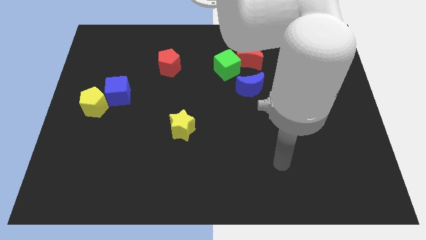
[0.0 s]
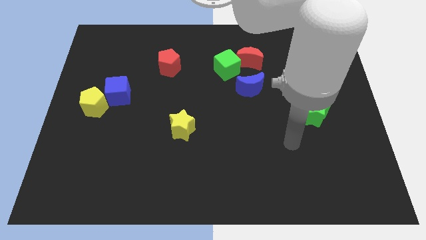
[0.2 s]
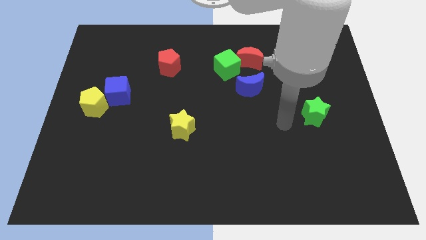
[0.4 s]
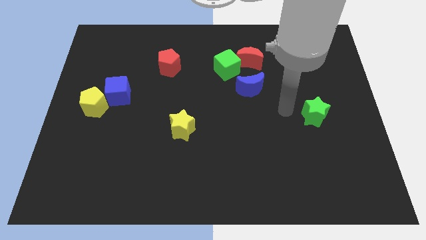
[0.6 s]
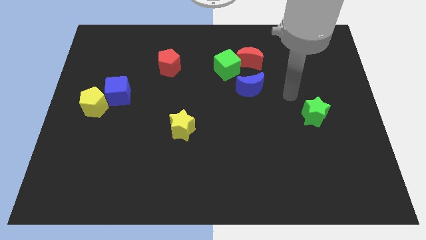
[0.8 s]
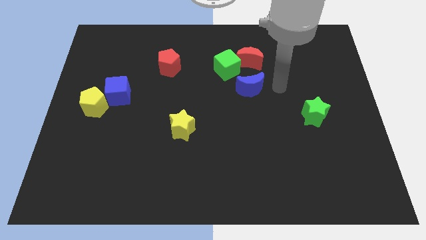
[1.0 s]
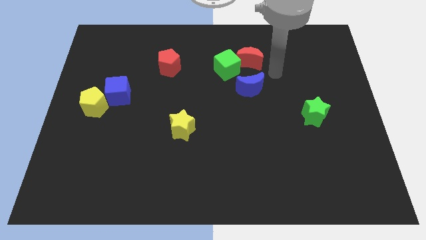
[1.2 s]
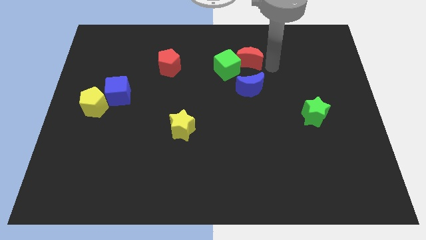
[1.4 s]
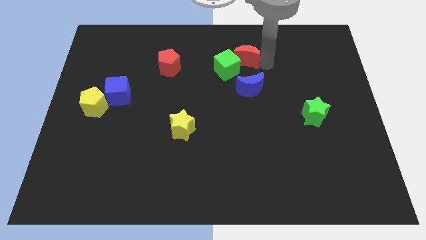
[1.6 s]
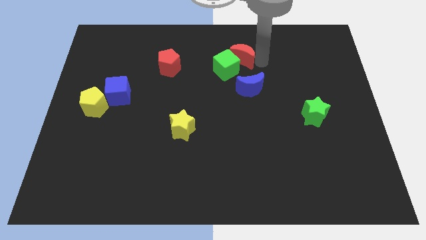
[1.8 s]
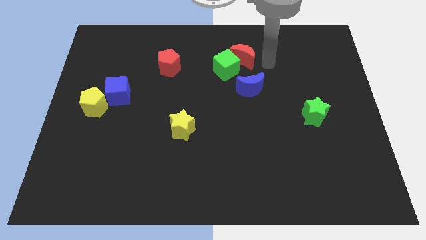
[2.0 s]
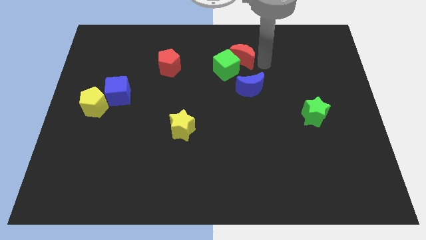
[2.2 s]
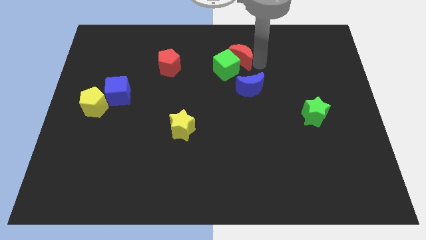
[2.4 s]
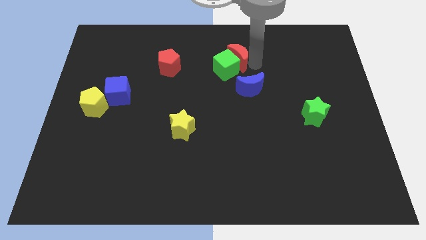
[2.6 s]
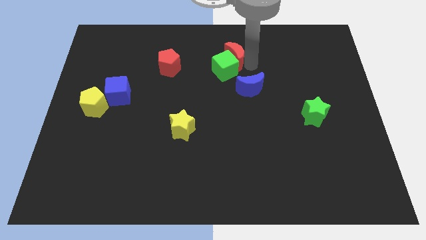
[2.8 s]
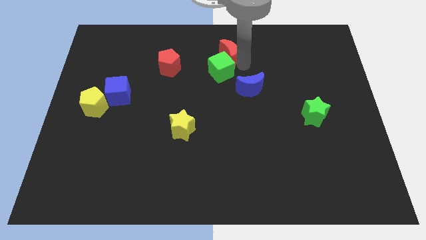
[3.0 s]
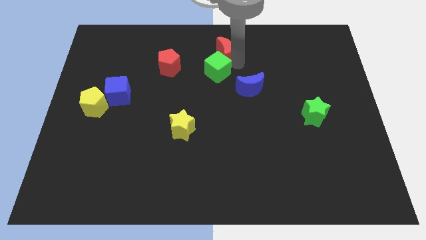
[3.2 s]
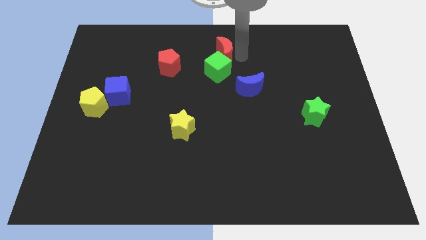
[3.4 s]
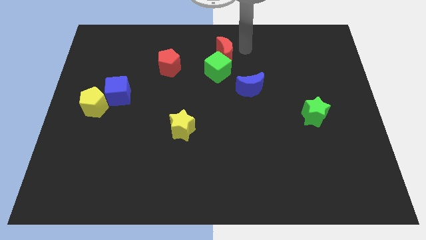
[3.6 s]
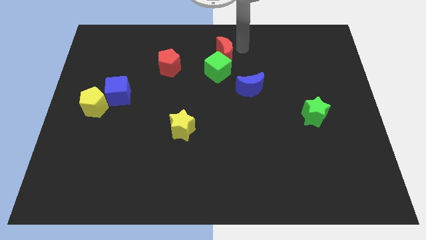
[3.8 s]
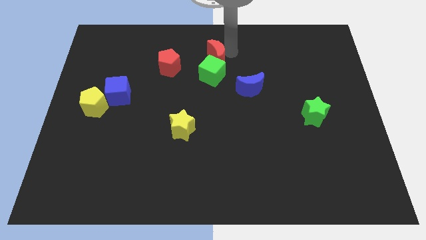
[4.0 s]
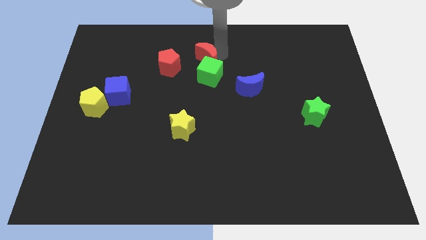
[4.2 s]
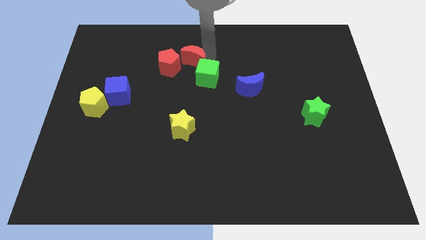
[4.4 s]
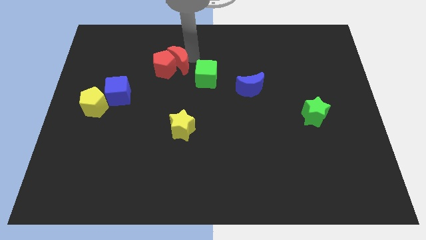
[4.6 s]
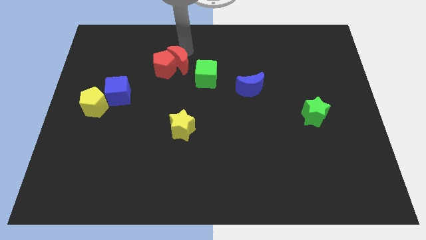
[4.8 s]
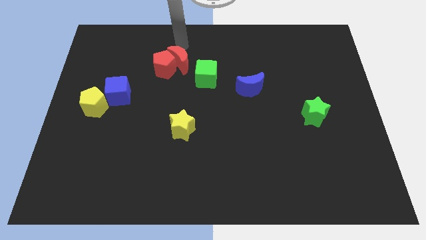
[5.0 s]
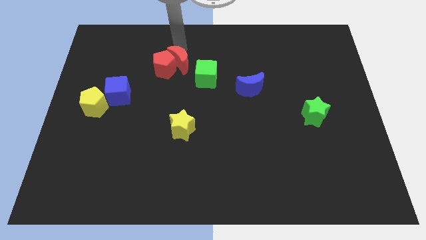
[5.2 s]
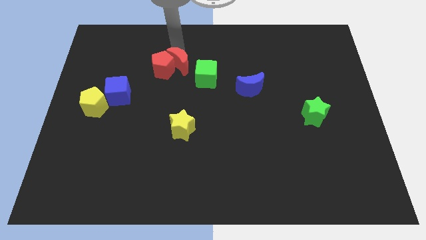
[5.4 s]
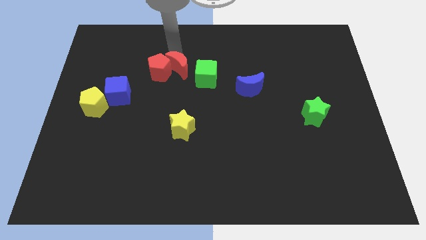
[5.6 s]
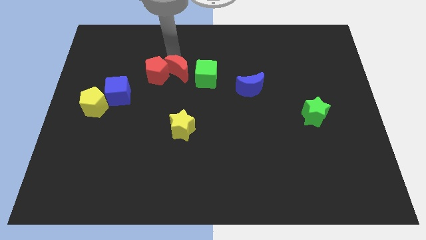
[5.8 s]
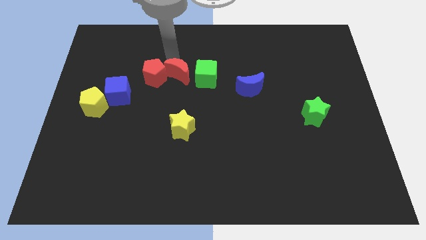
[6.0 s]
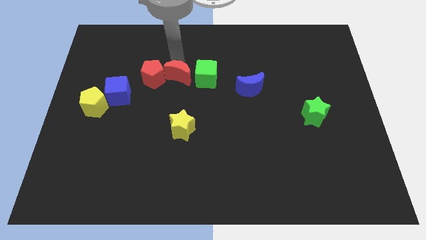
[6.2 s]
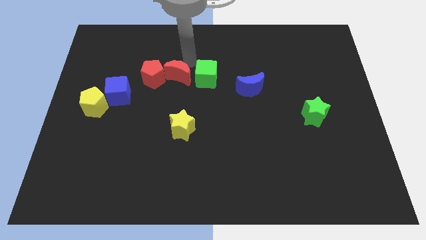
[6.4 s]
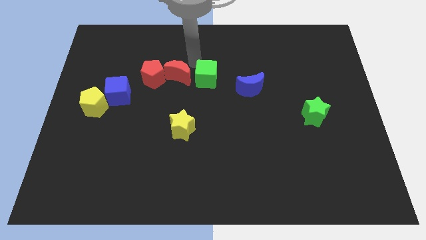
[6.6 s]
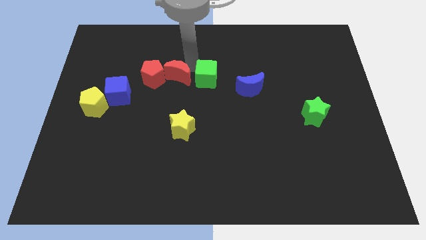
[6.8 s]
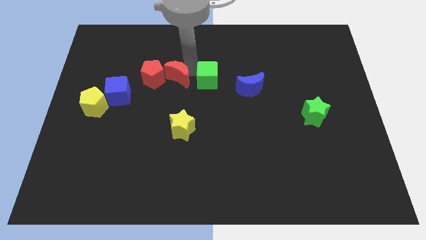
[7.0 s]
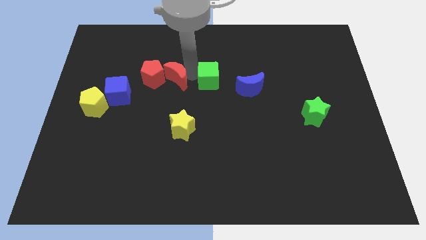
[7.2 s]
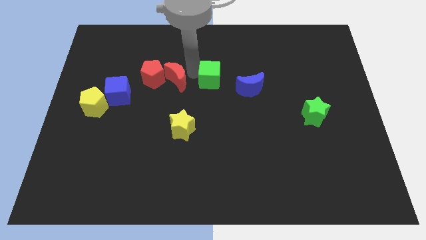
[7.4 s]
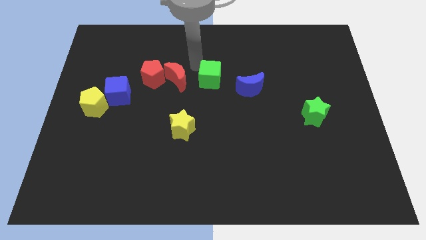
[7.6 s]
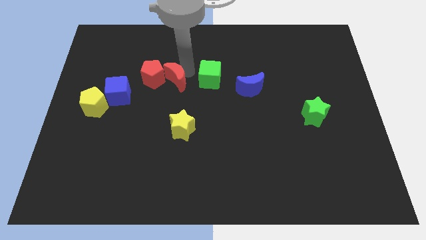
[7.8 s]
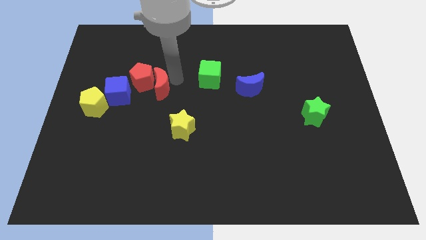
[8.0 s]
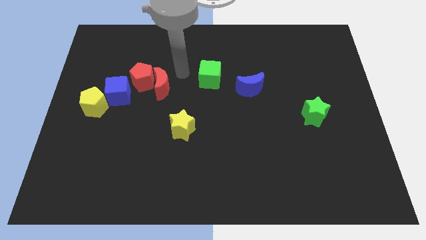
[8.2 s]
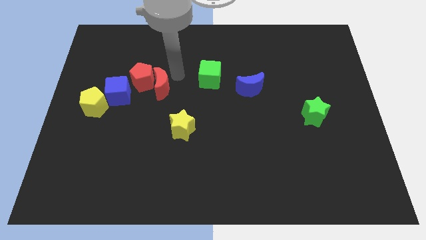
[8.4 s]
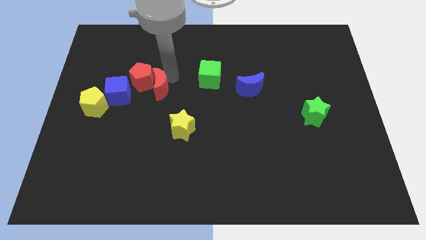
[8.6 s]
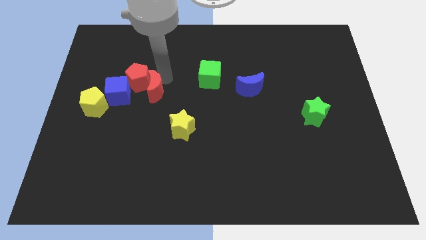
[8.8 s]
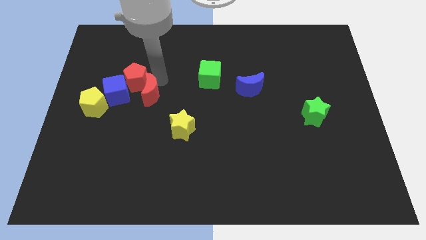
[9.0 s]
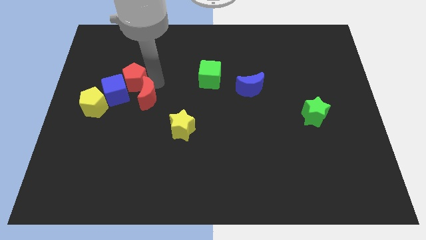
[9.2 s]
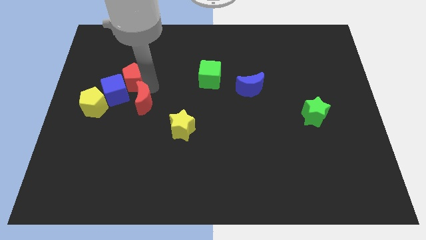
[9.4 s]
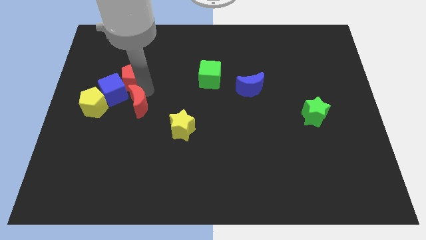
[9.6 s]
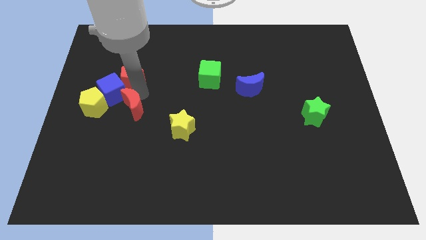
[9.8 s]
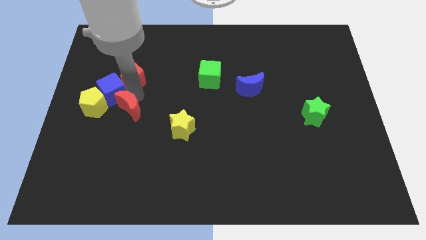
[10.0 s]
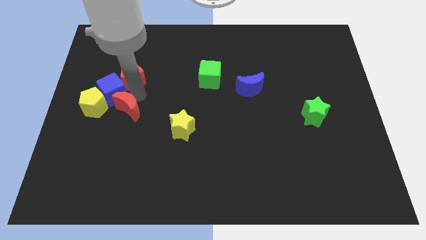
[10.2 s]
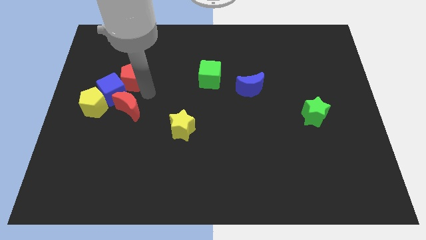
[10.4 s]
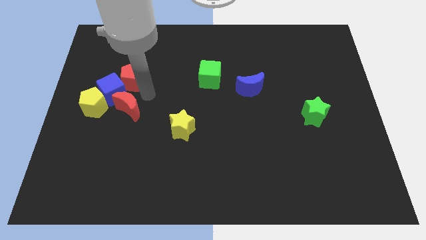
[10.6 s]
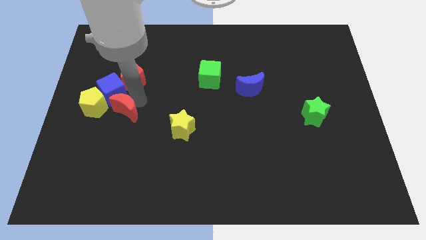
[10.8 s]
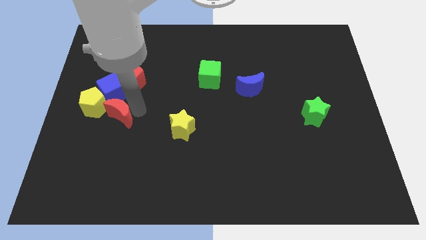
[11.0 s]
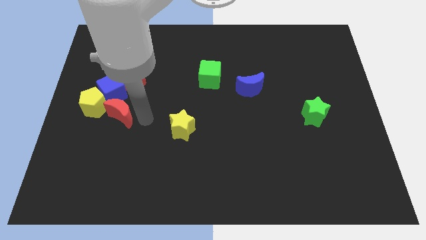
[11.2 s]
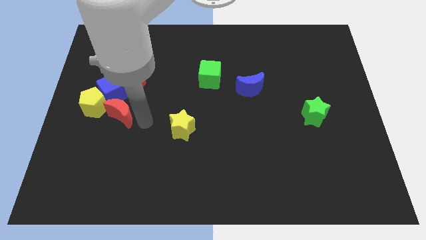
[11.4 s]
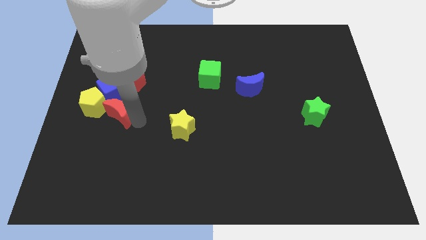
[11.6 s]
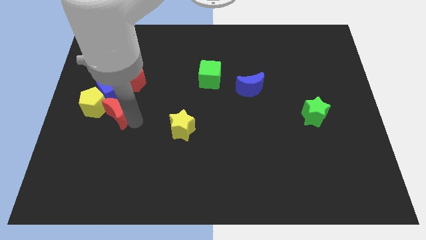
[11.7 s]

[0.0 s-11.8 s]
move the red moon close to the yellow pentagon
